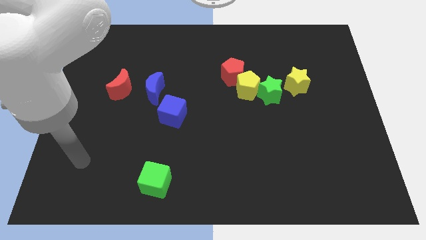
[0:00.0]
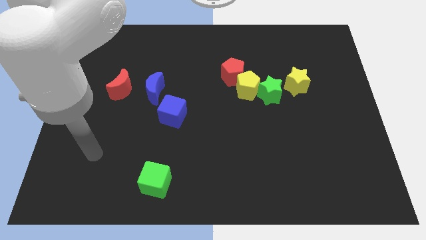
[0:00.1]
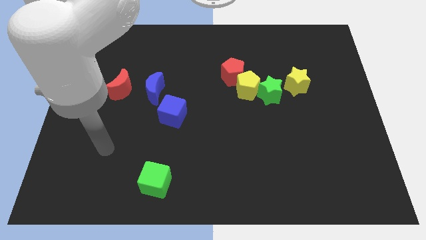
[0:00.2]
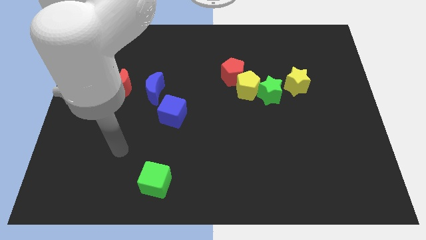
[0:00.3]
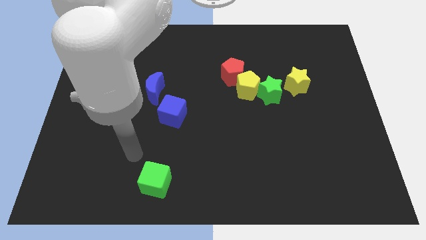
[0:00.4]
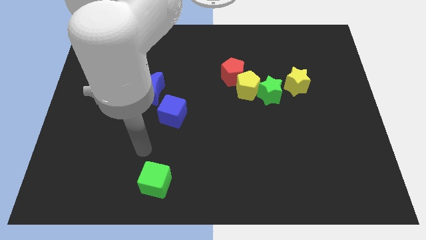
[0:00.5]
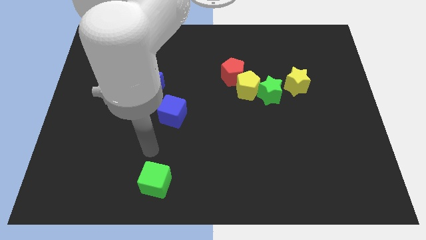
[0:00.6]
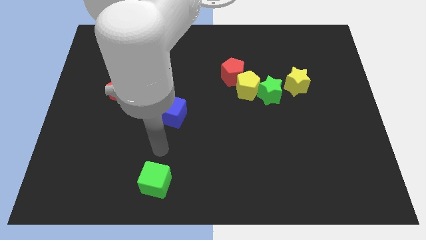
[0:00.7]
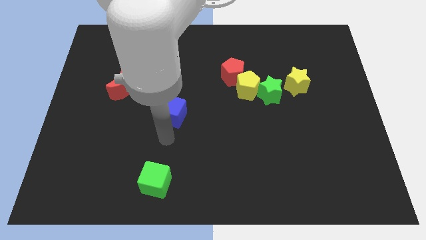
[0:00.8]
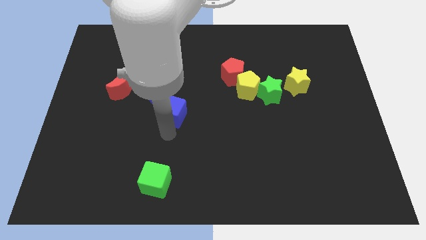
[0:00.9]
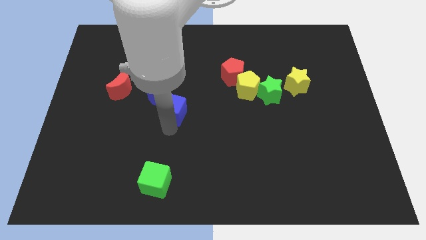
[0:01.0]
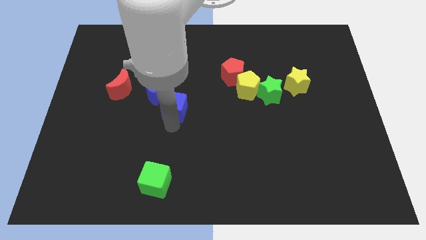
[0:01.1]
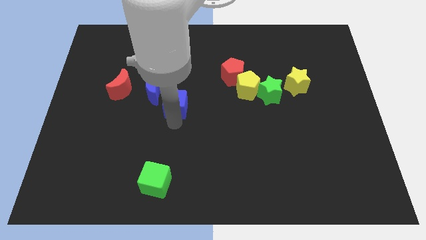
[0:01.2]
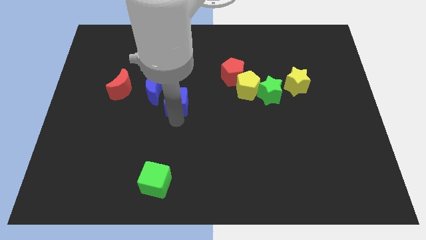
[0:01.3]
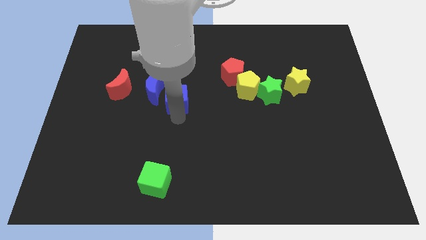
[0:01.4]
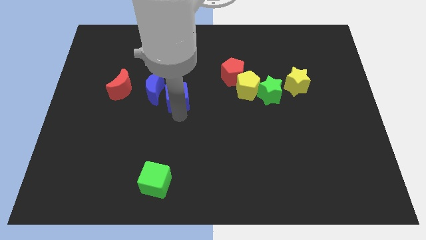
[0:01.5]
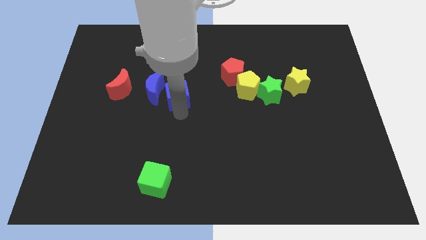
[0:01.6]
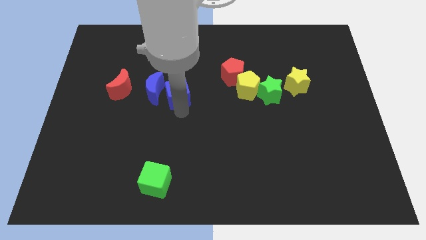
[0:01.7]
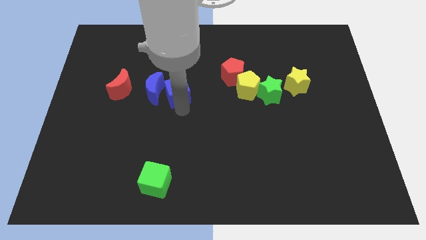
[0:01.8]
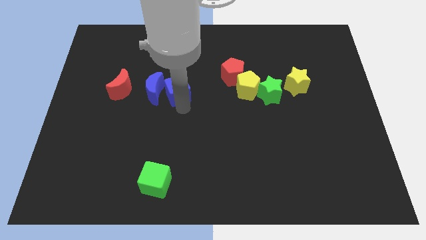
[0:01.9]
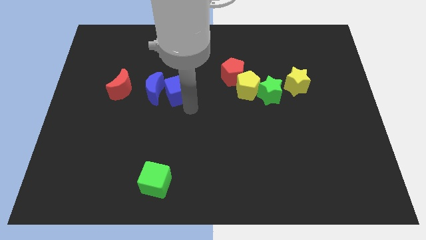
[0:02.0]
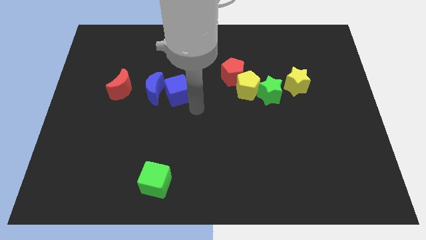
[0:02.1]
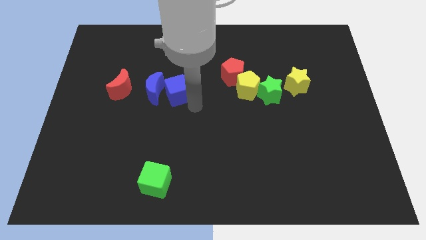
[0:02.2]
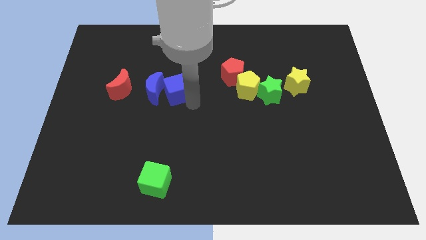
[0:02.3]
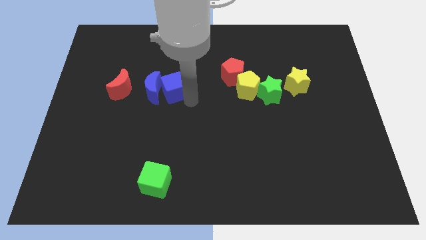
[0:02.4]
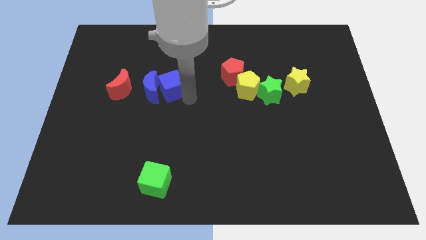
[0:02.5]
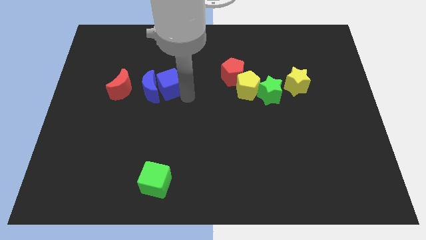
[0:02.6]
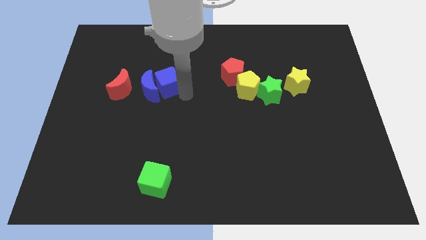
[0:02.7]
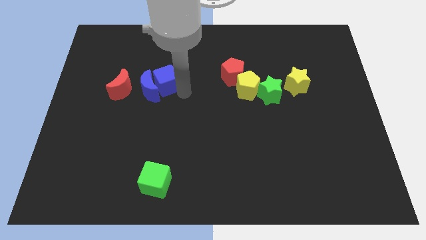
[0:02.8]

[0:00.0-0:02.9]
slide the blue cube up and left somewhat

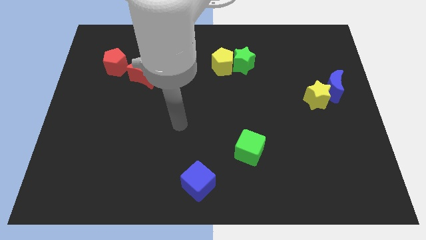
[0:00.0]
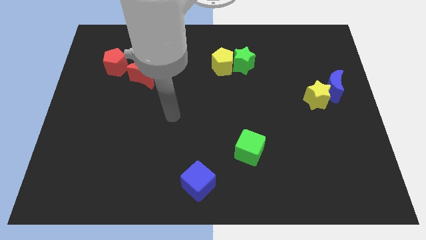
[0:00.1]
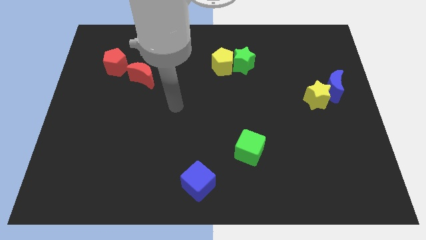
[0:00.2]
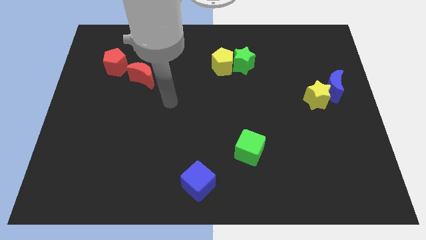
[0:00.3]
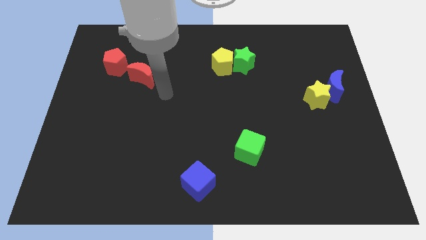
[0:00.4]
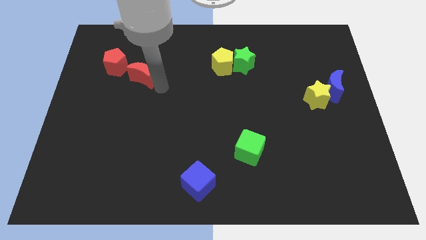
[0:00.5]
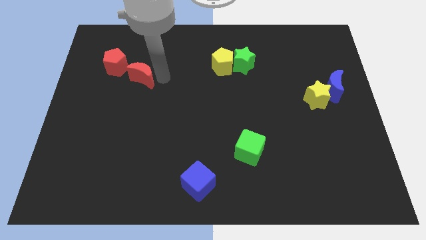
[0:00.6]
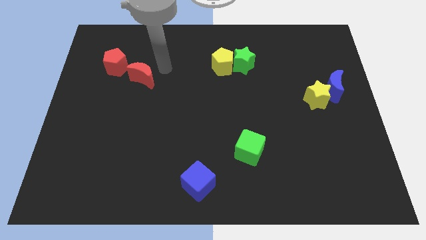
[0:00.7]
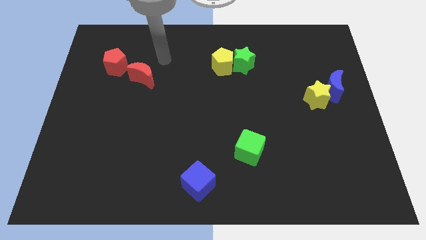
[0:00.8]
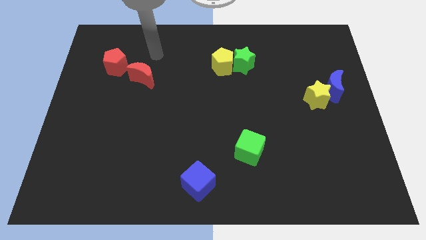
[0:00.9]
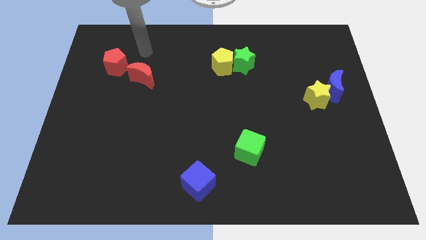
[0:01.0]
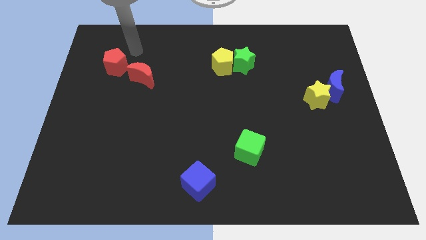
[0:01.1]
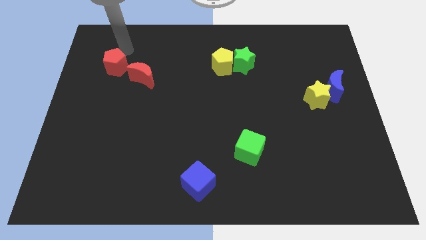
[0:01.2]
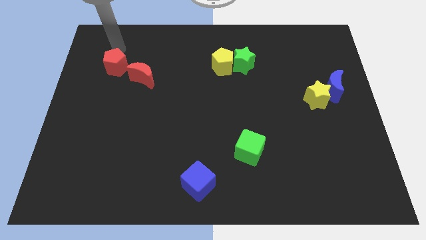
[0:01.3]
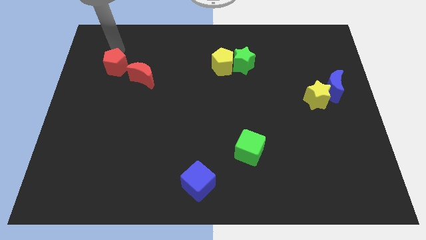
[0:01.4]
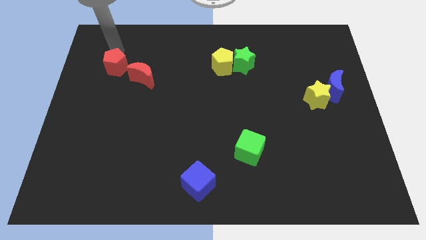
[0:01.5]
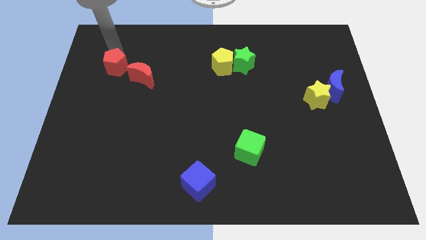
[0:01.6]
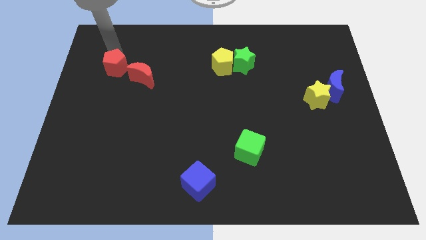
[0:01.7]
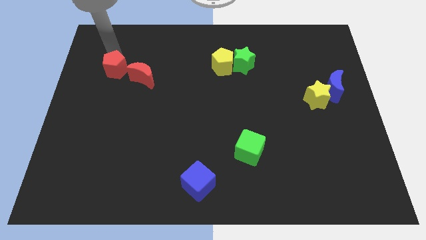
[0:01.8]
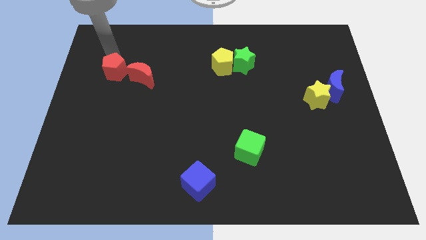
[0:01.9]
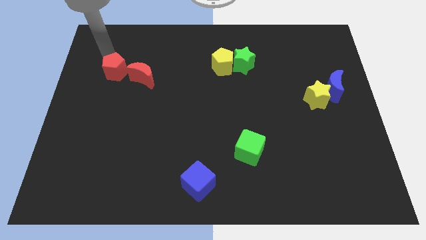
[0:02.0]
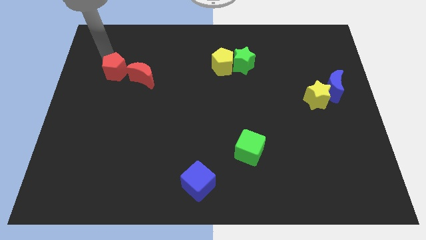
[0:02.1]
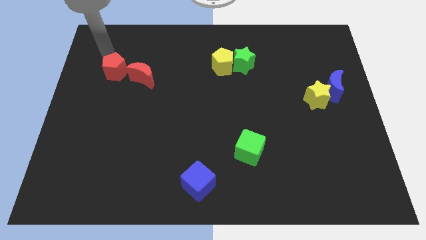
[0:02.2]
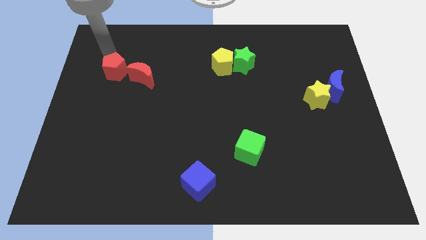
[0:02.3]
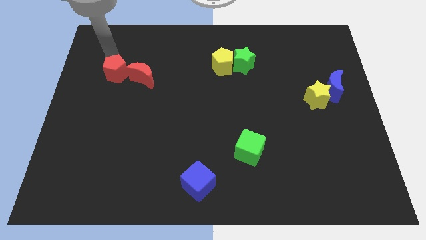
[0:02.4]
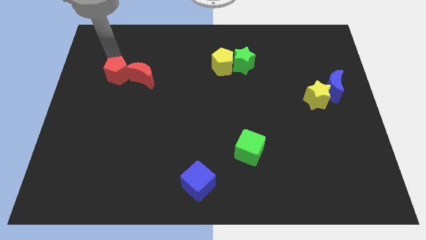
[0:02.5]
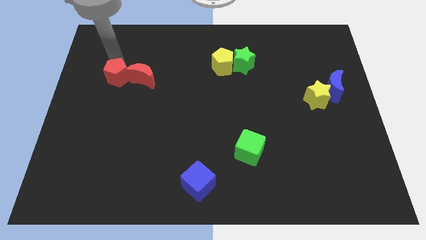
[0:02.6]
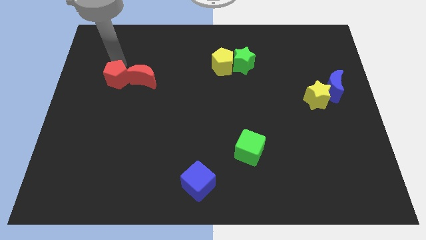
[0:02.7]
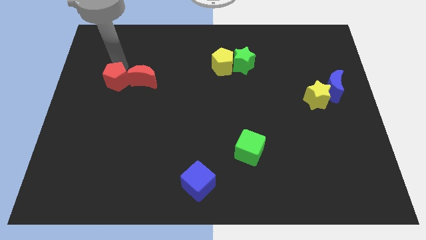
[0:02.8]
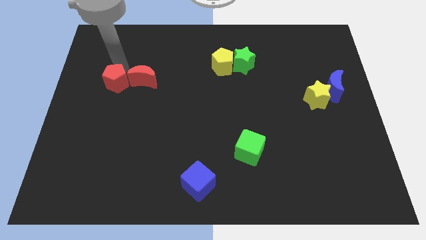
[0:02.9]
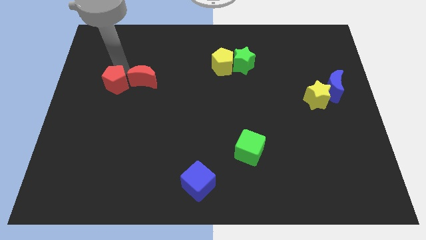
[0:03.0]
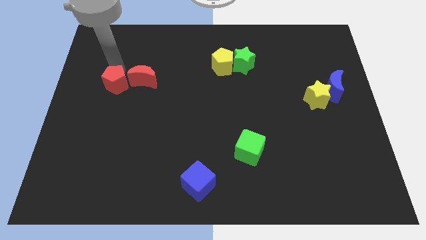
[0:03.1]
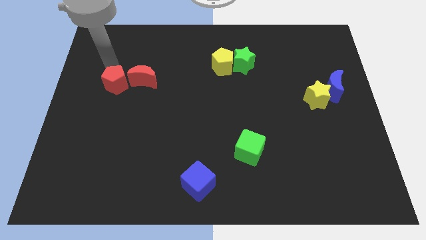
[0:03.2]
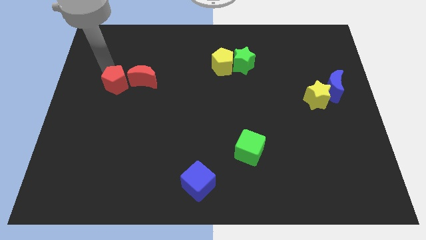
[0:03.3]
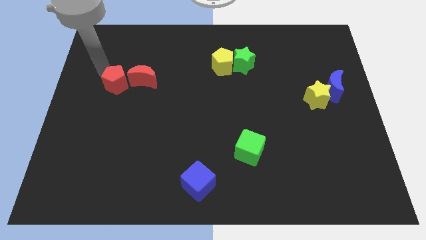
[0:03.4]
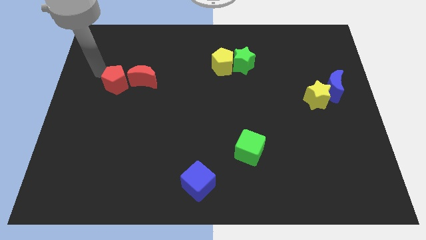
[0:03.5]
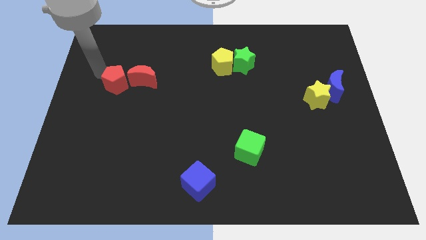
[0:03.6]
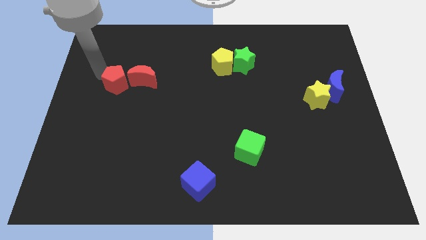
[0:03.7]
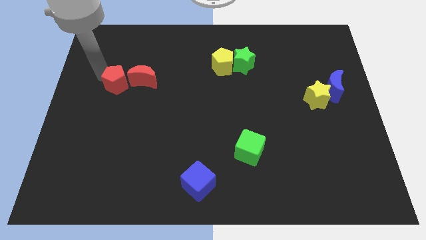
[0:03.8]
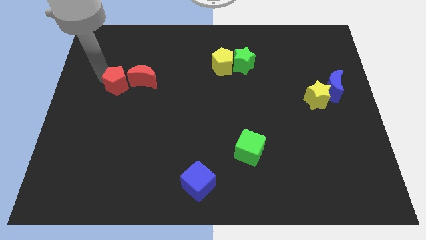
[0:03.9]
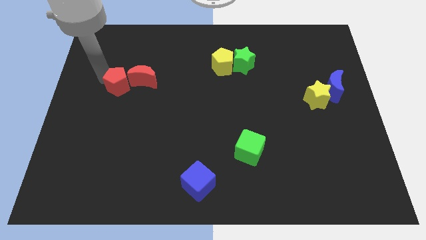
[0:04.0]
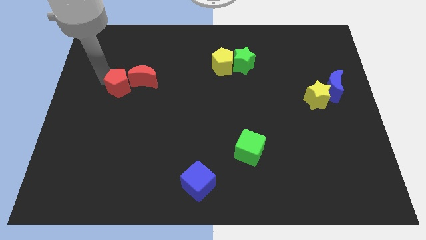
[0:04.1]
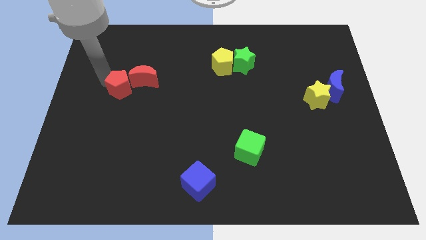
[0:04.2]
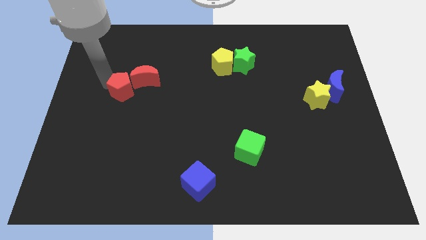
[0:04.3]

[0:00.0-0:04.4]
slide the red pentagon a bit diagonally downwards and to the right

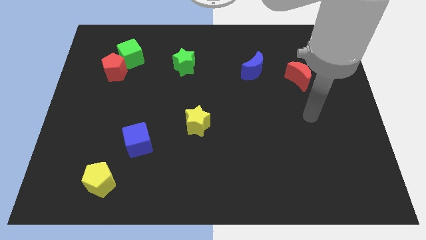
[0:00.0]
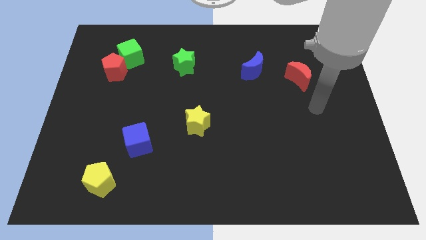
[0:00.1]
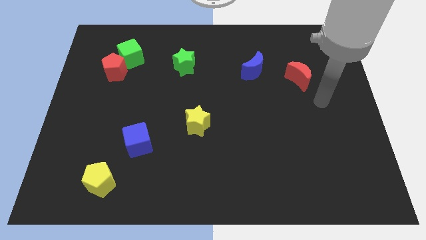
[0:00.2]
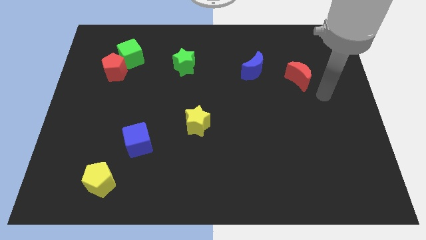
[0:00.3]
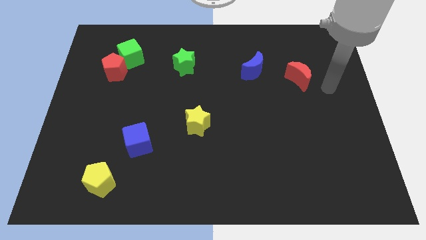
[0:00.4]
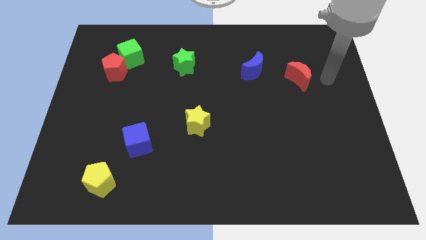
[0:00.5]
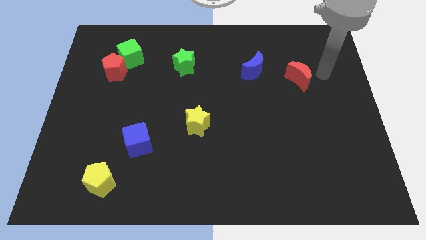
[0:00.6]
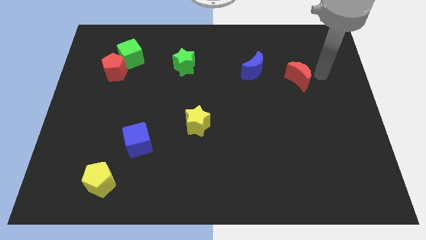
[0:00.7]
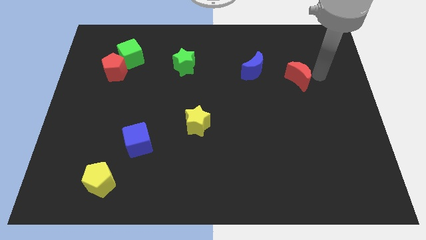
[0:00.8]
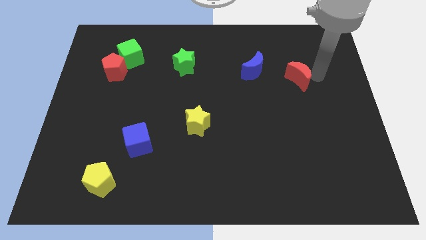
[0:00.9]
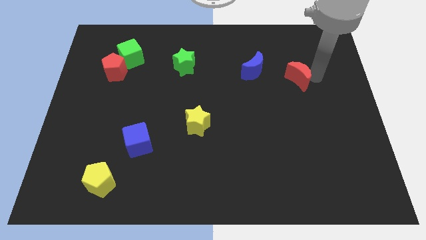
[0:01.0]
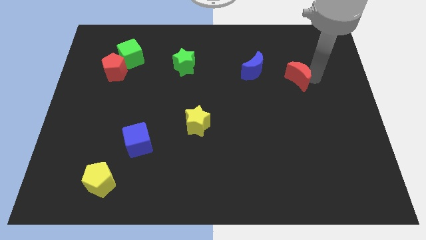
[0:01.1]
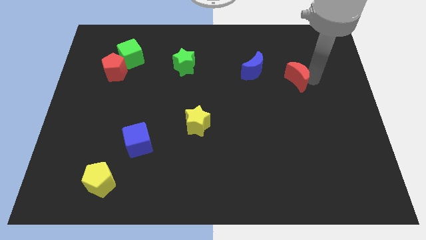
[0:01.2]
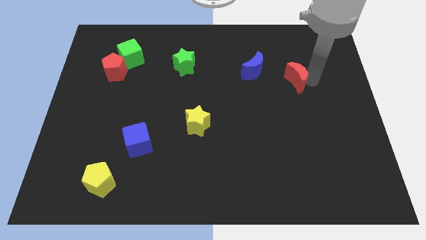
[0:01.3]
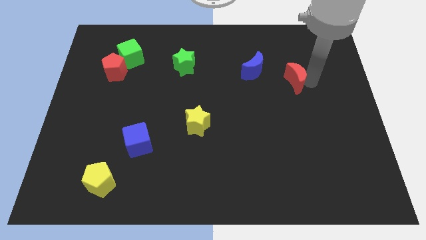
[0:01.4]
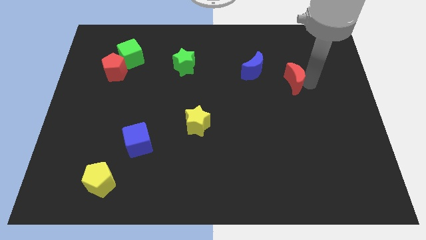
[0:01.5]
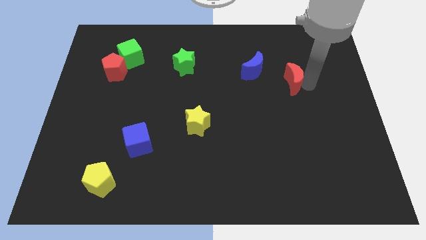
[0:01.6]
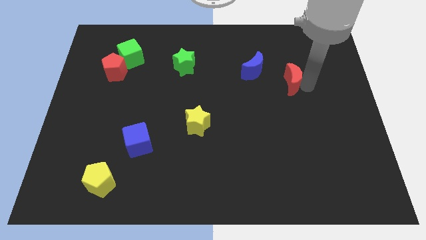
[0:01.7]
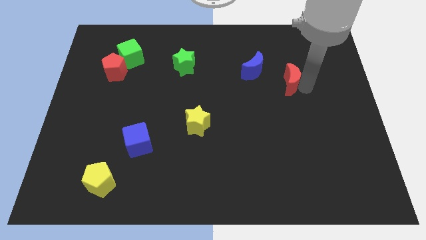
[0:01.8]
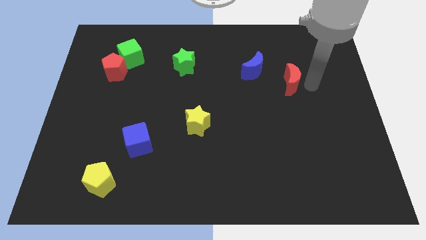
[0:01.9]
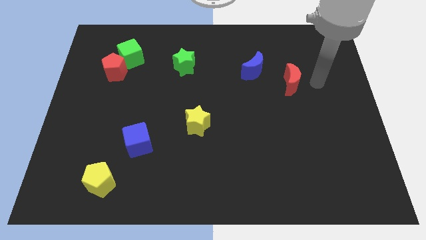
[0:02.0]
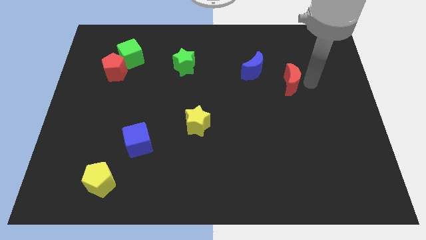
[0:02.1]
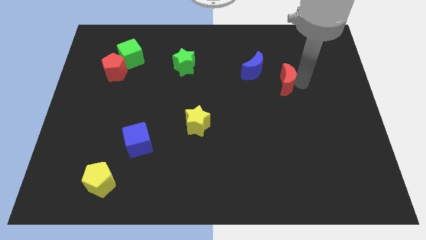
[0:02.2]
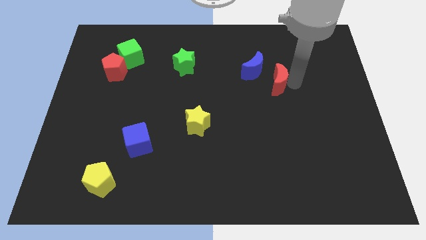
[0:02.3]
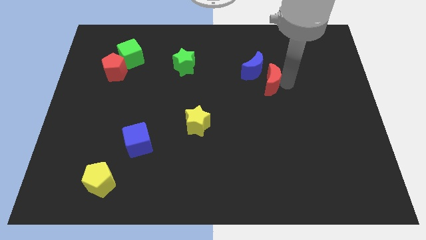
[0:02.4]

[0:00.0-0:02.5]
slightly slide the red moon left
